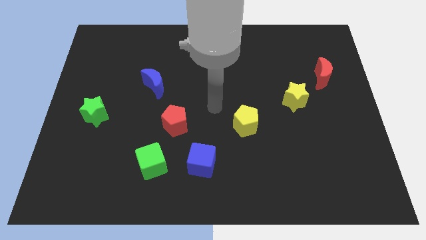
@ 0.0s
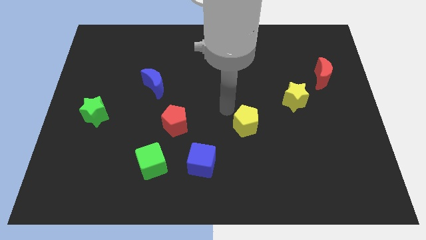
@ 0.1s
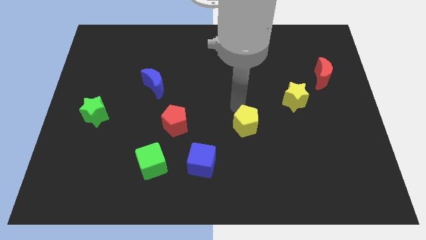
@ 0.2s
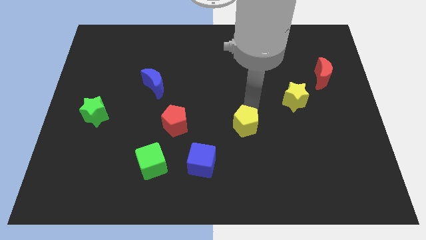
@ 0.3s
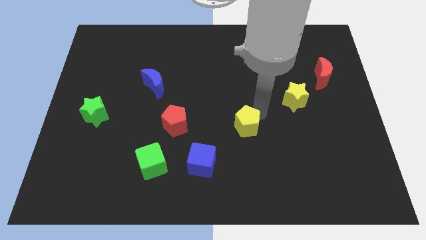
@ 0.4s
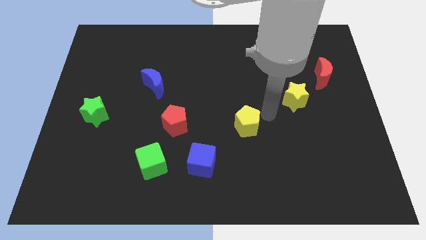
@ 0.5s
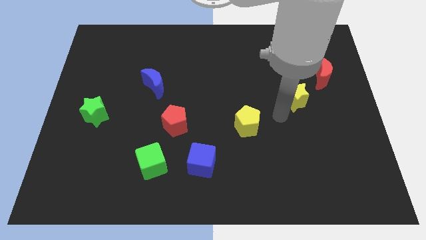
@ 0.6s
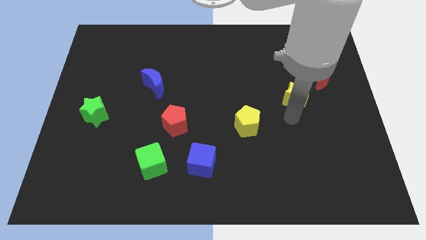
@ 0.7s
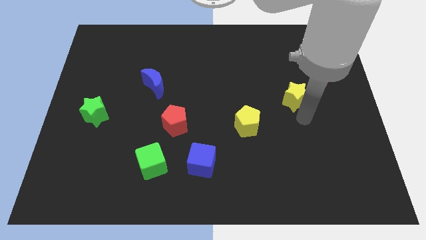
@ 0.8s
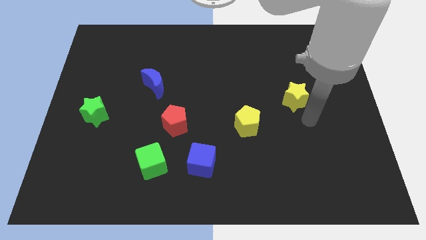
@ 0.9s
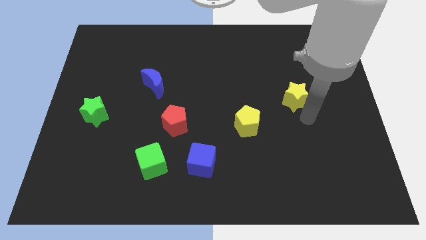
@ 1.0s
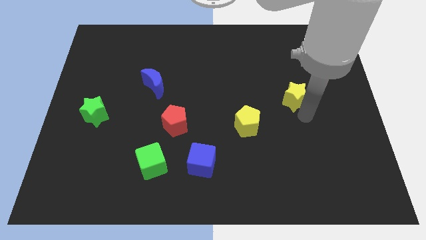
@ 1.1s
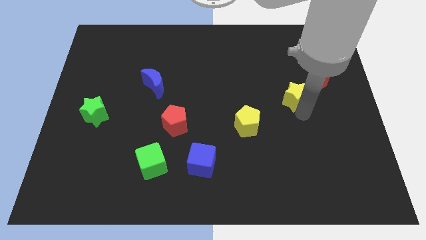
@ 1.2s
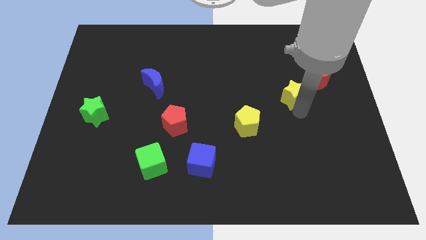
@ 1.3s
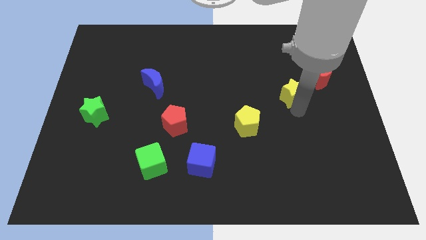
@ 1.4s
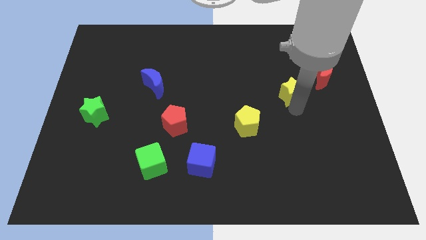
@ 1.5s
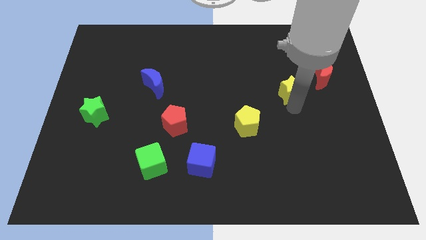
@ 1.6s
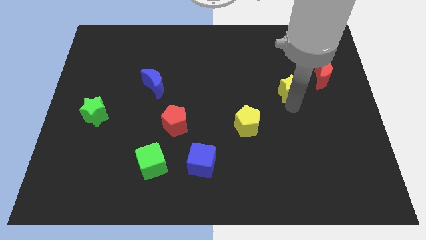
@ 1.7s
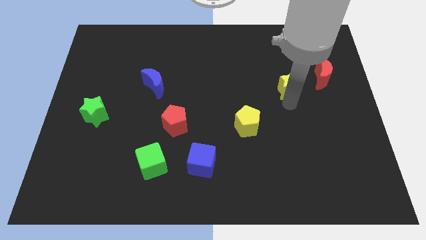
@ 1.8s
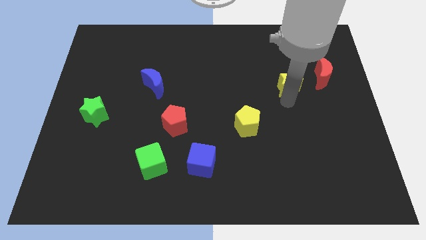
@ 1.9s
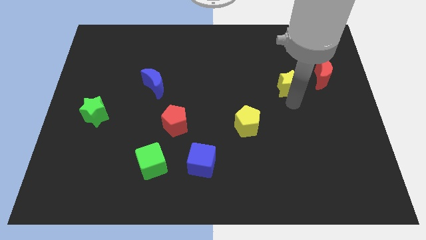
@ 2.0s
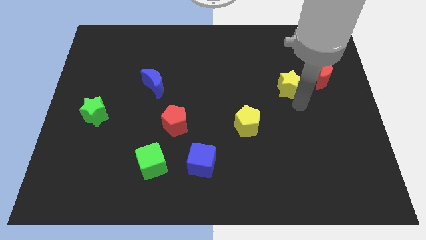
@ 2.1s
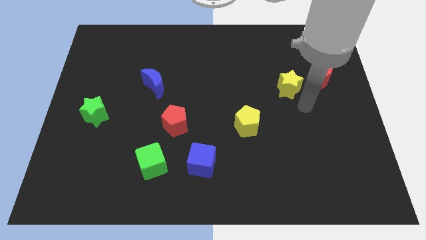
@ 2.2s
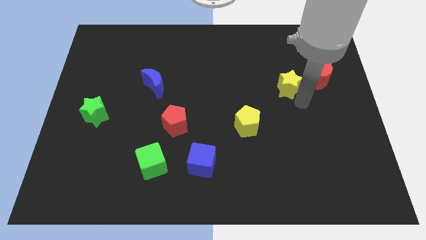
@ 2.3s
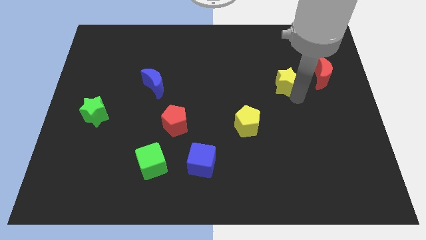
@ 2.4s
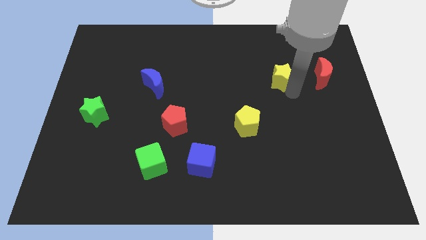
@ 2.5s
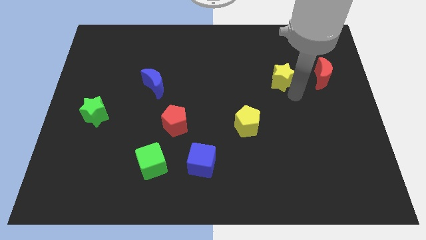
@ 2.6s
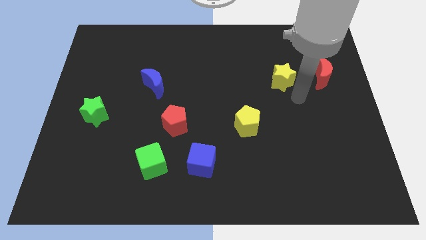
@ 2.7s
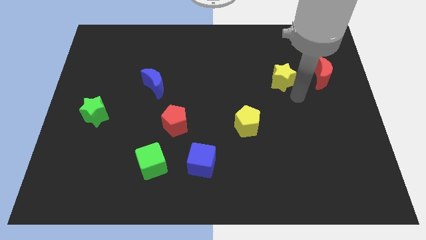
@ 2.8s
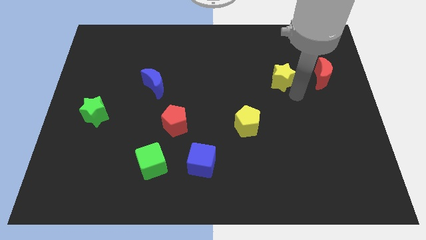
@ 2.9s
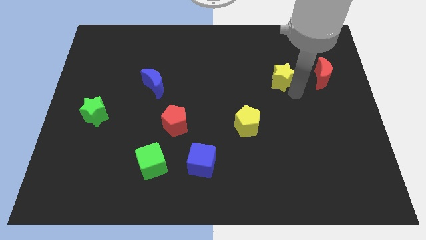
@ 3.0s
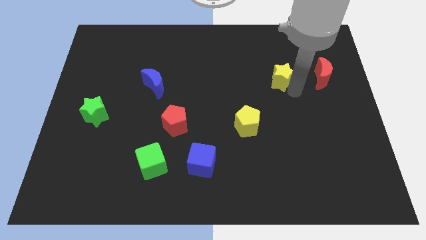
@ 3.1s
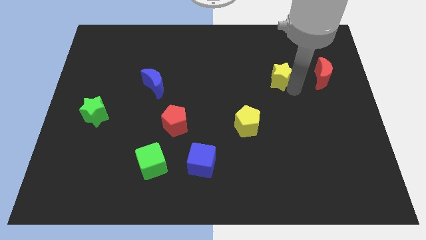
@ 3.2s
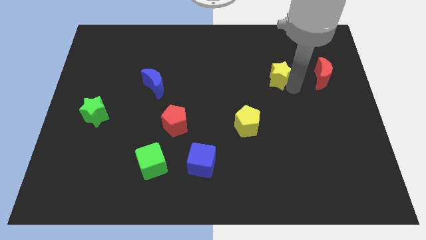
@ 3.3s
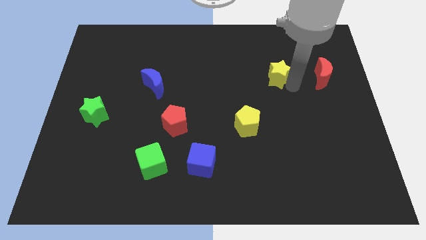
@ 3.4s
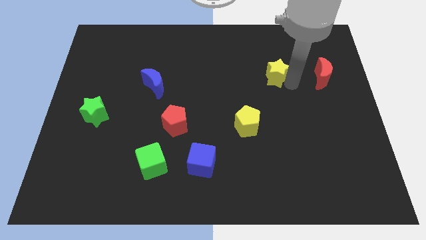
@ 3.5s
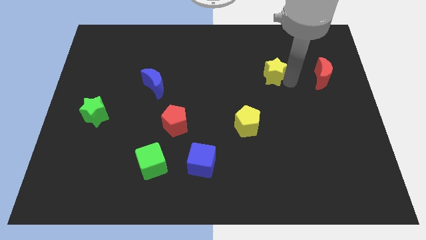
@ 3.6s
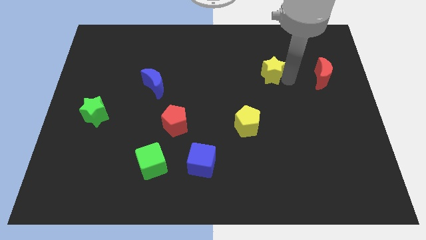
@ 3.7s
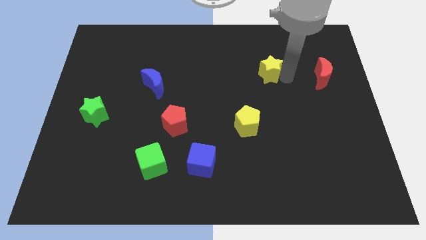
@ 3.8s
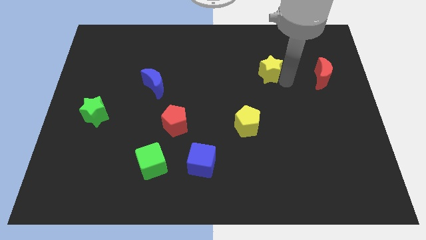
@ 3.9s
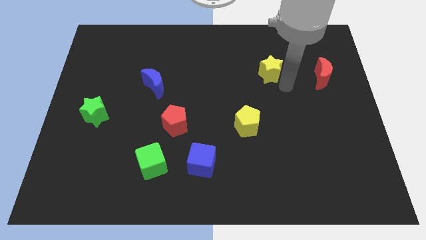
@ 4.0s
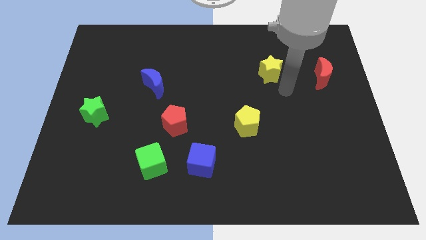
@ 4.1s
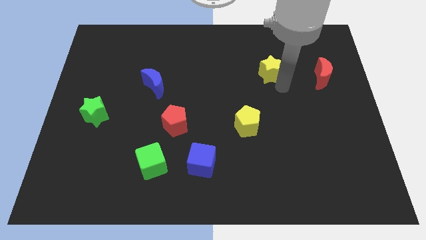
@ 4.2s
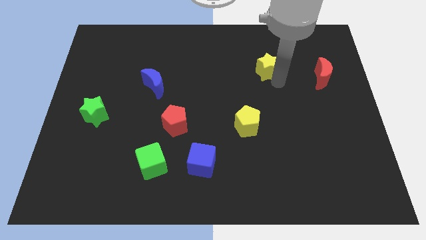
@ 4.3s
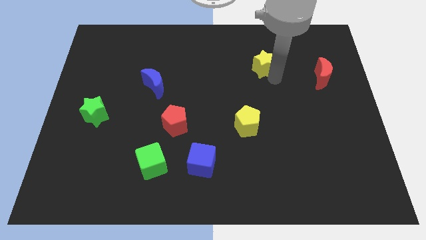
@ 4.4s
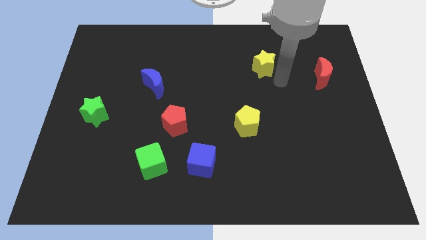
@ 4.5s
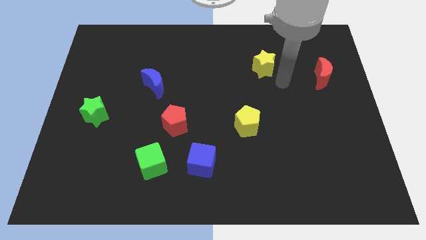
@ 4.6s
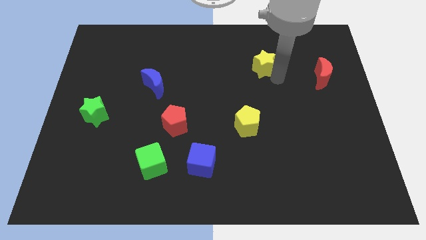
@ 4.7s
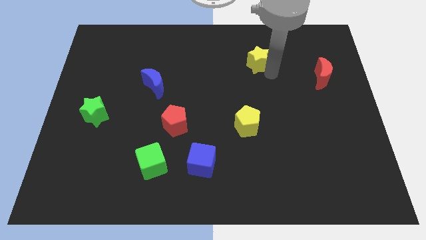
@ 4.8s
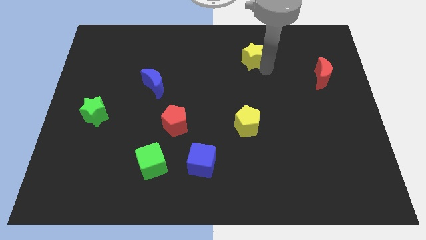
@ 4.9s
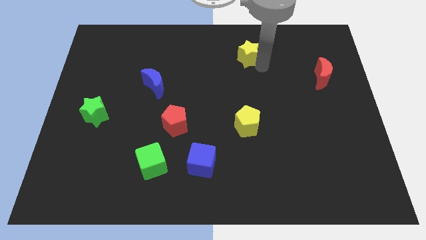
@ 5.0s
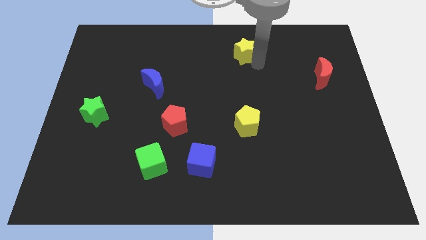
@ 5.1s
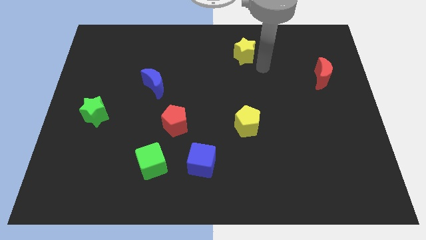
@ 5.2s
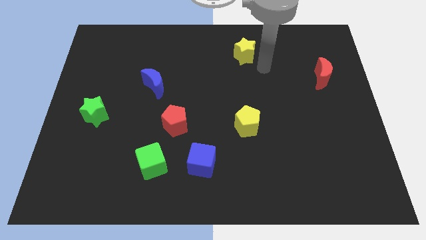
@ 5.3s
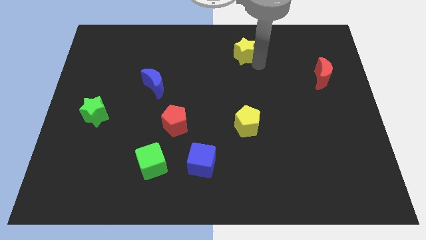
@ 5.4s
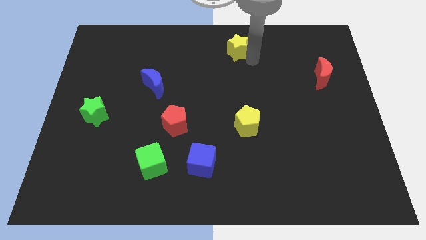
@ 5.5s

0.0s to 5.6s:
move the yellow star to the towards your base

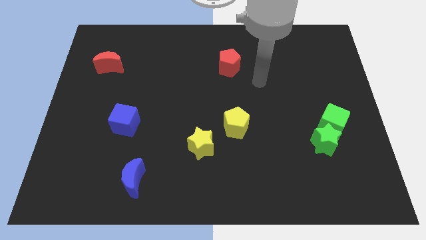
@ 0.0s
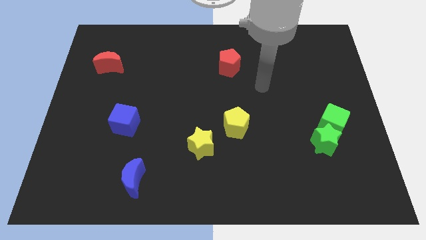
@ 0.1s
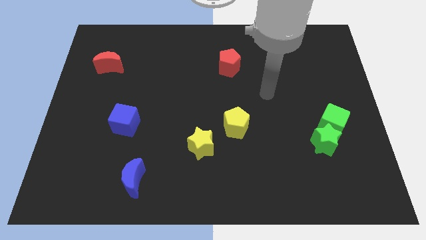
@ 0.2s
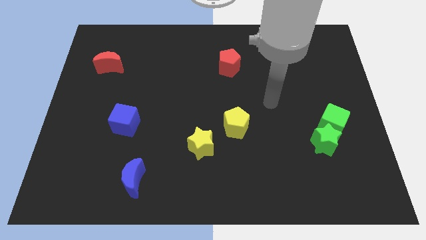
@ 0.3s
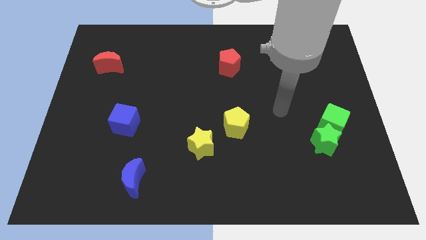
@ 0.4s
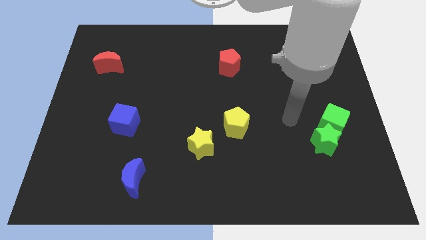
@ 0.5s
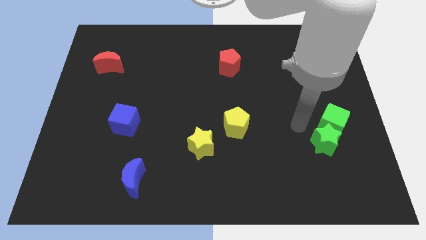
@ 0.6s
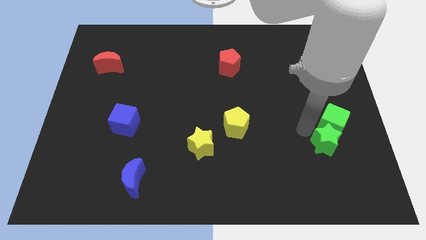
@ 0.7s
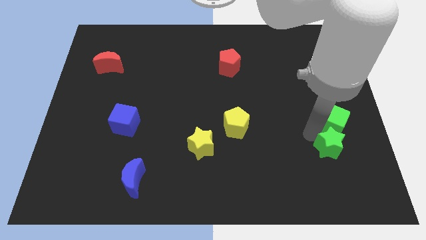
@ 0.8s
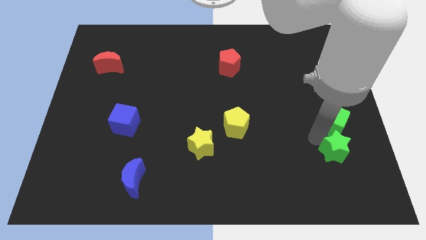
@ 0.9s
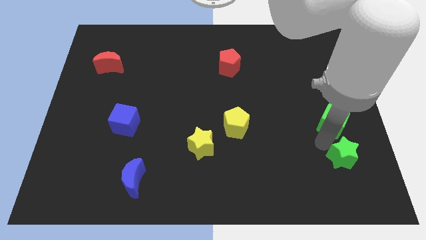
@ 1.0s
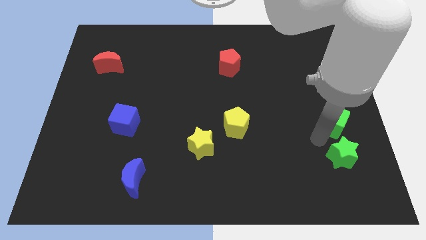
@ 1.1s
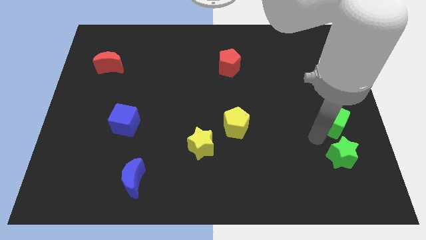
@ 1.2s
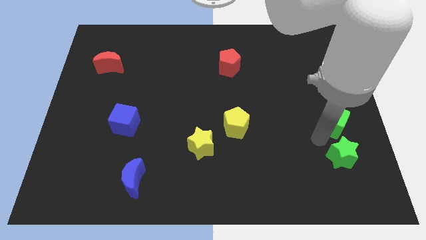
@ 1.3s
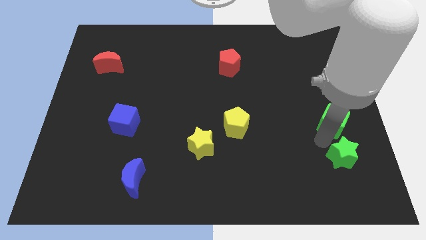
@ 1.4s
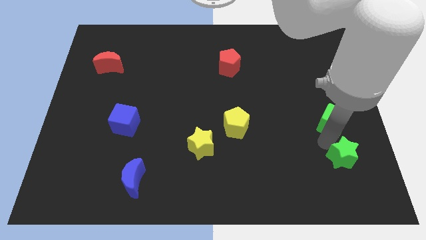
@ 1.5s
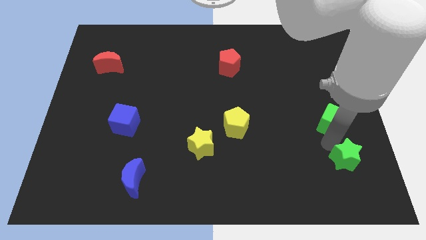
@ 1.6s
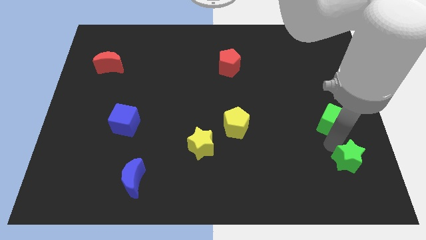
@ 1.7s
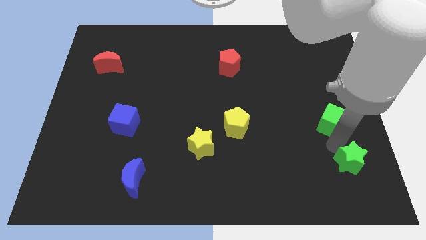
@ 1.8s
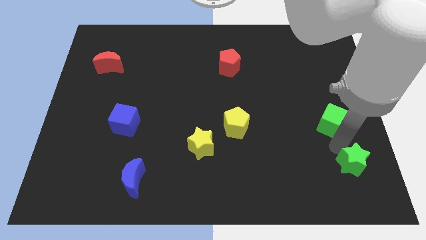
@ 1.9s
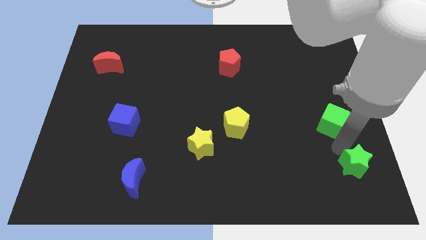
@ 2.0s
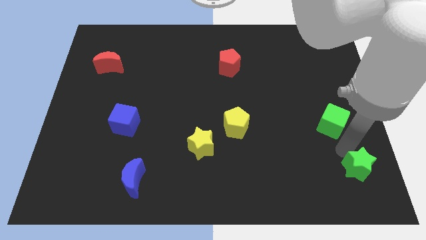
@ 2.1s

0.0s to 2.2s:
put the green star to the lower right corner
